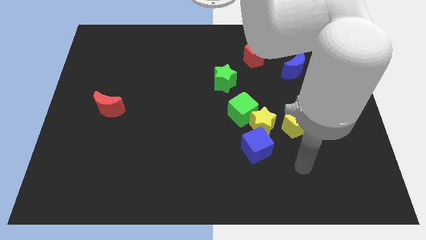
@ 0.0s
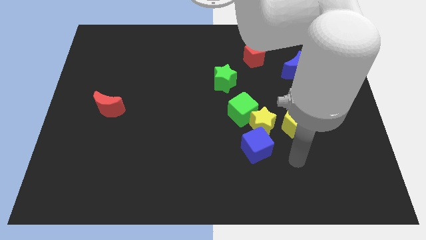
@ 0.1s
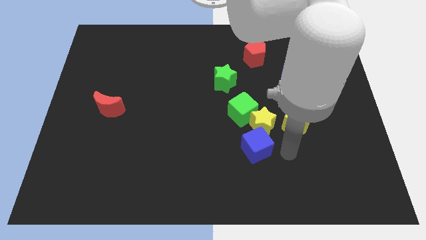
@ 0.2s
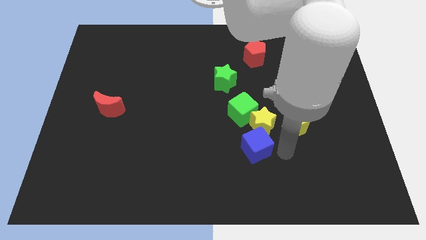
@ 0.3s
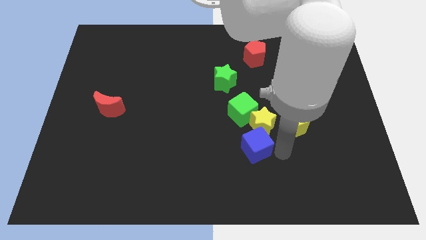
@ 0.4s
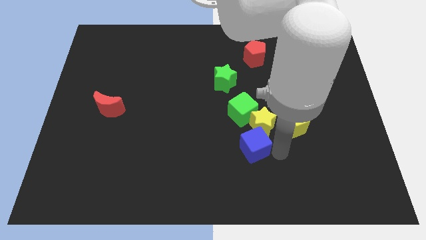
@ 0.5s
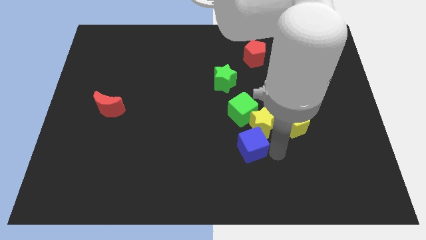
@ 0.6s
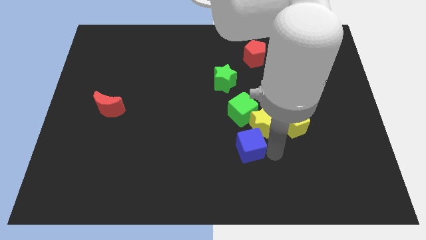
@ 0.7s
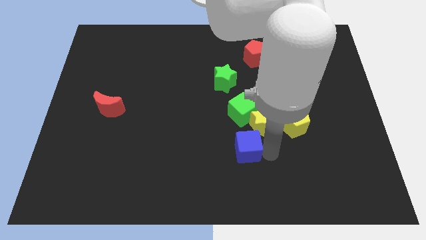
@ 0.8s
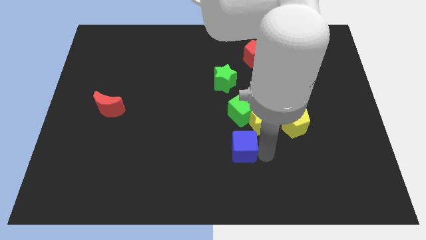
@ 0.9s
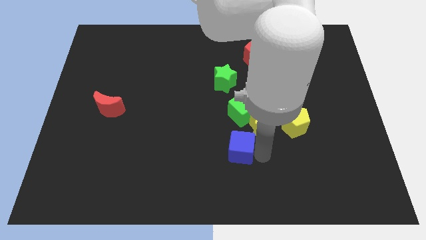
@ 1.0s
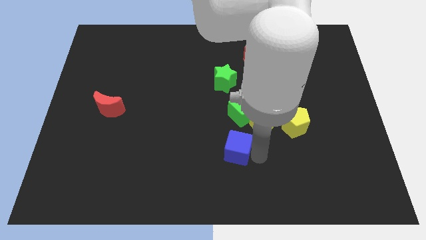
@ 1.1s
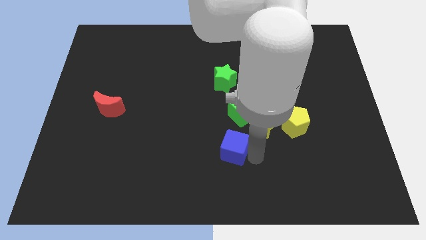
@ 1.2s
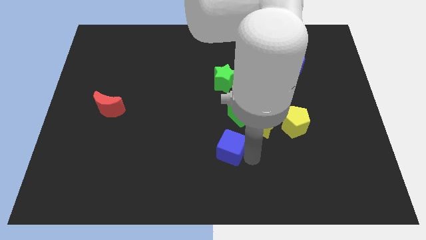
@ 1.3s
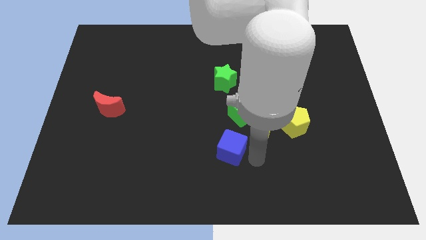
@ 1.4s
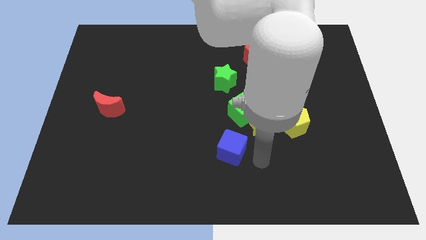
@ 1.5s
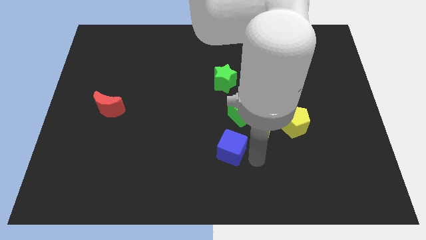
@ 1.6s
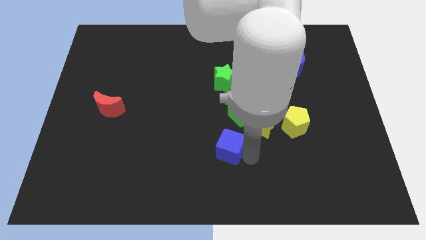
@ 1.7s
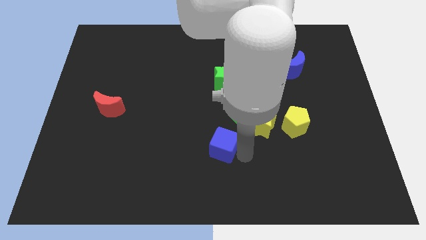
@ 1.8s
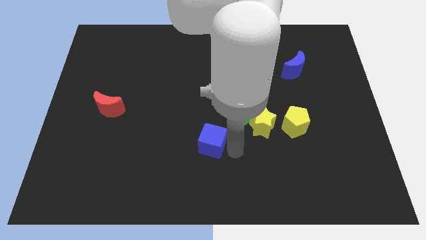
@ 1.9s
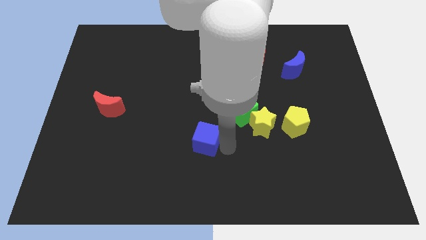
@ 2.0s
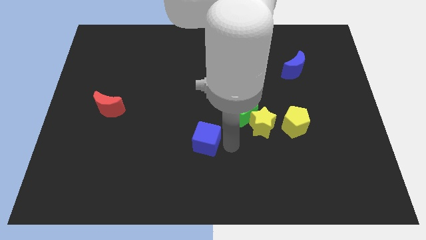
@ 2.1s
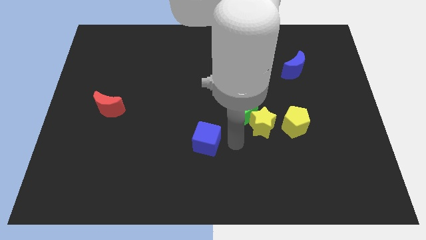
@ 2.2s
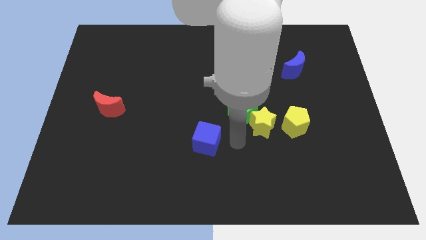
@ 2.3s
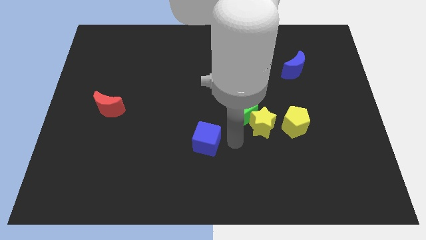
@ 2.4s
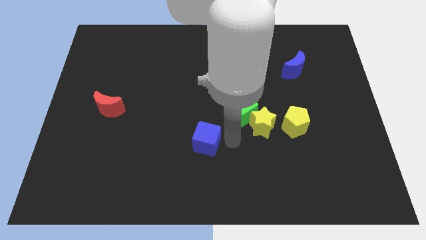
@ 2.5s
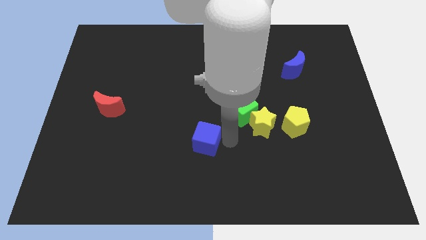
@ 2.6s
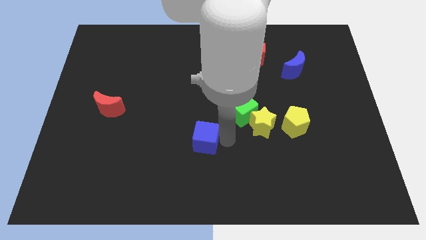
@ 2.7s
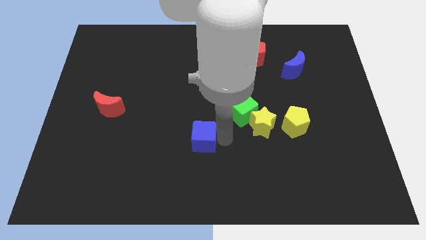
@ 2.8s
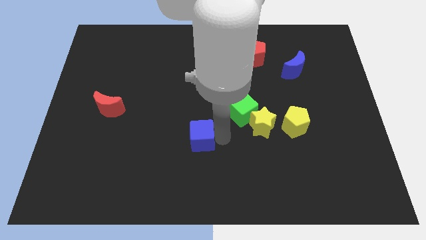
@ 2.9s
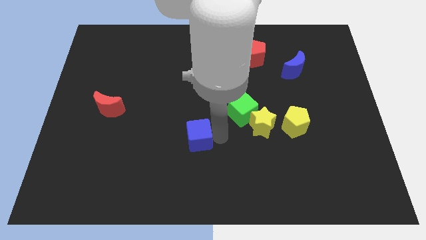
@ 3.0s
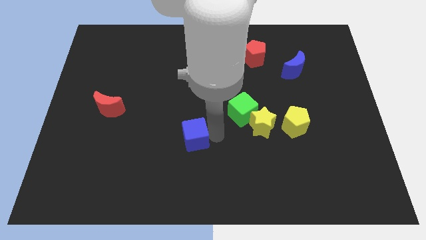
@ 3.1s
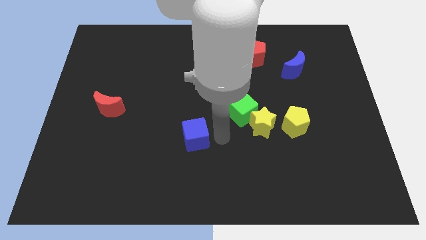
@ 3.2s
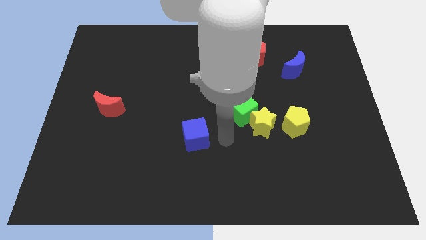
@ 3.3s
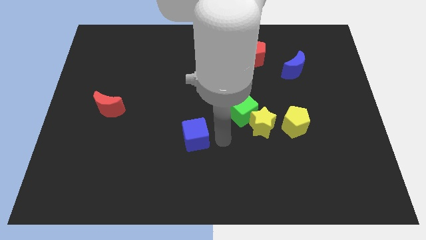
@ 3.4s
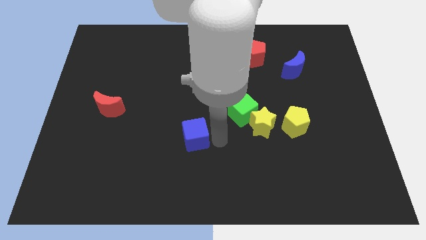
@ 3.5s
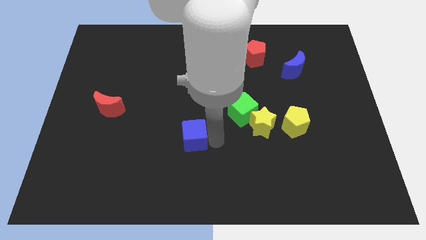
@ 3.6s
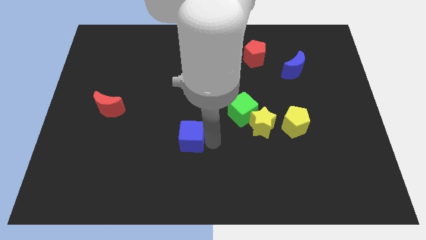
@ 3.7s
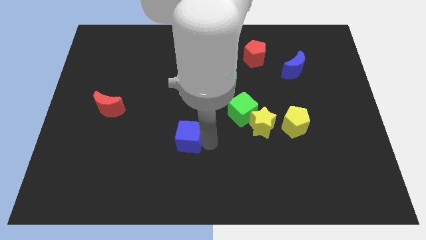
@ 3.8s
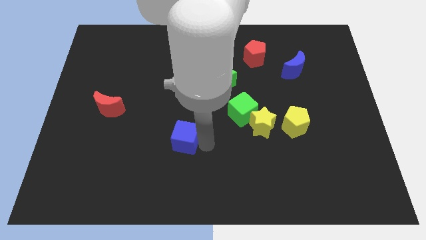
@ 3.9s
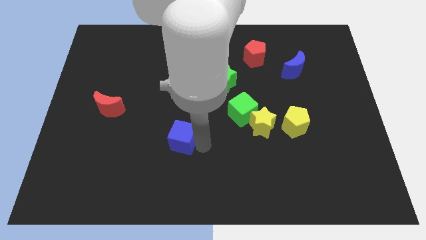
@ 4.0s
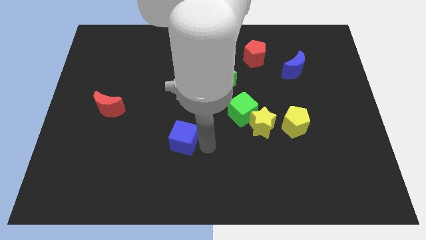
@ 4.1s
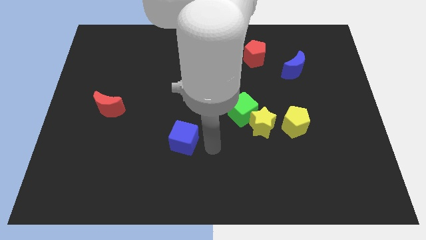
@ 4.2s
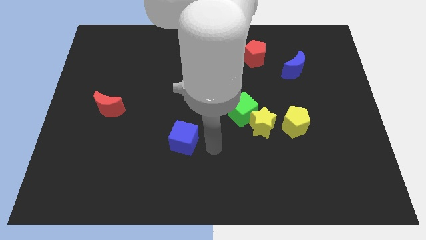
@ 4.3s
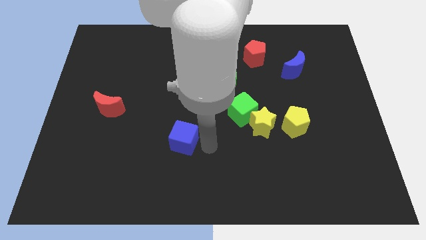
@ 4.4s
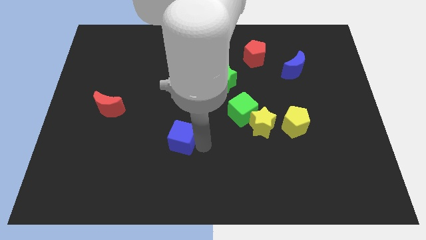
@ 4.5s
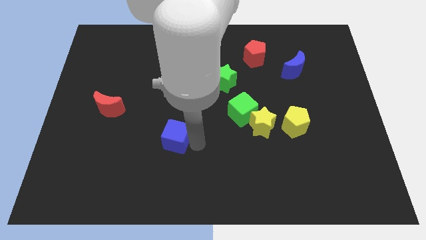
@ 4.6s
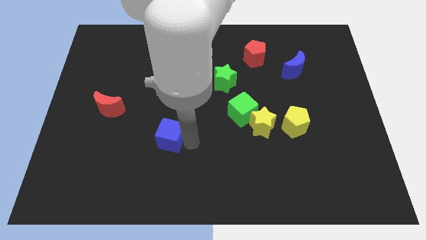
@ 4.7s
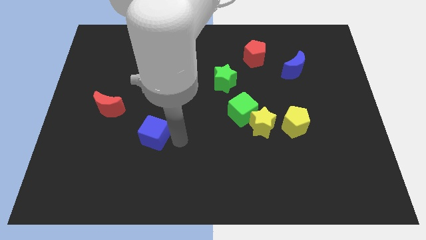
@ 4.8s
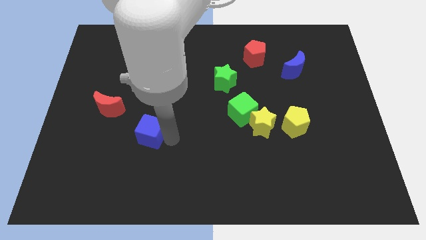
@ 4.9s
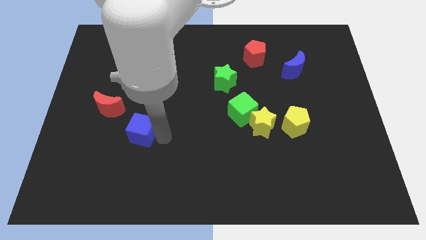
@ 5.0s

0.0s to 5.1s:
put the blue cube to the bottom right side of the red moon

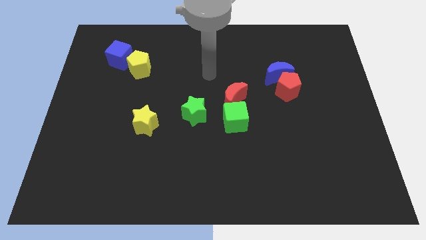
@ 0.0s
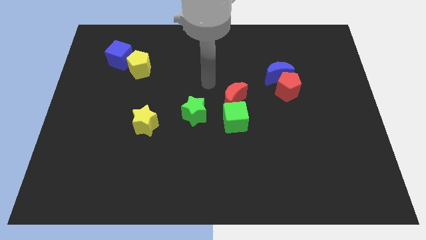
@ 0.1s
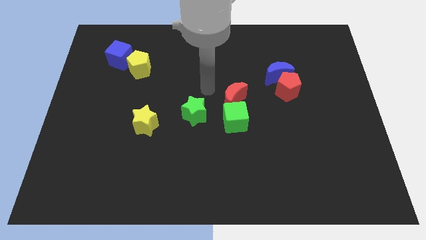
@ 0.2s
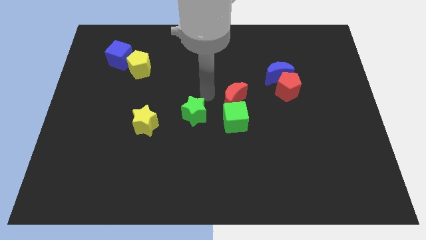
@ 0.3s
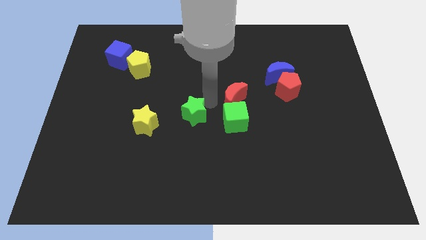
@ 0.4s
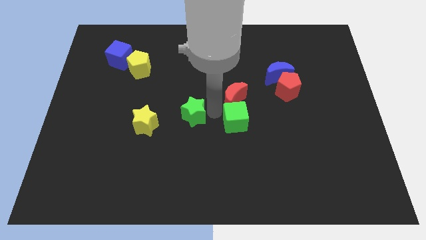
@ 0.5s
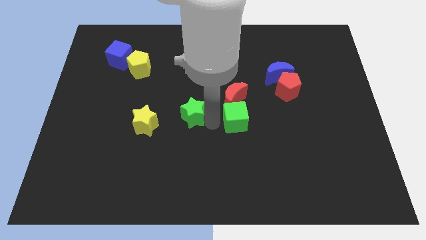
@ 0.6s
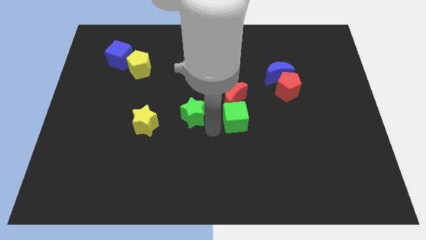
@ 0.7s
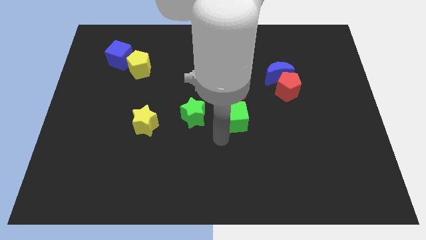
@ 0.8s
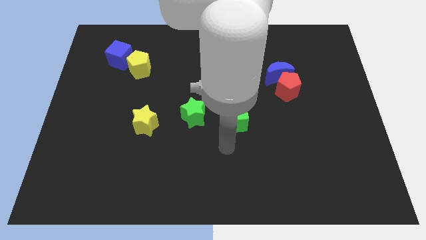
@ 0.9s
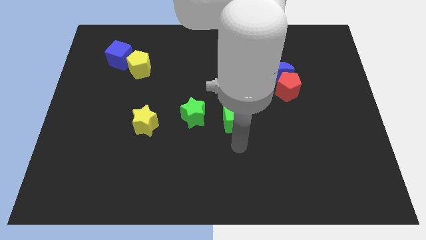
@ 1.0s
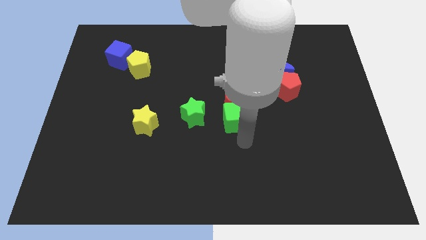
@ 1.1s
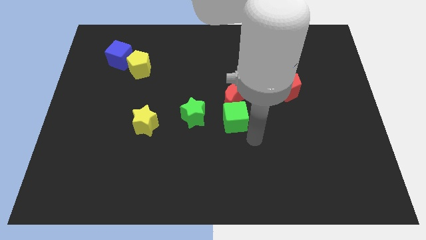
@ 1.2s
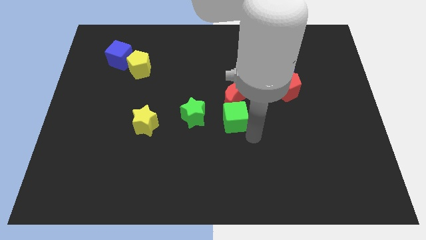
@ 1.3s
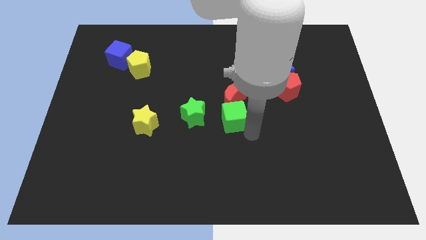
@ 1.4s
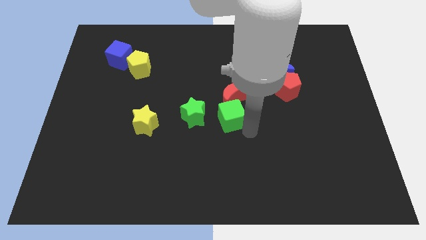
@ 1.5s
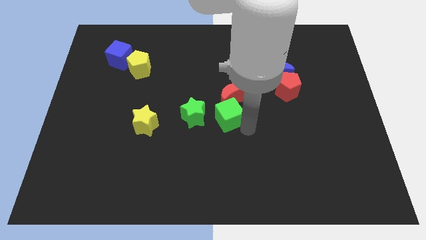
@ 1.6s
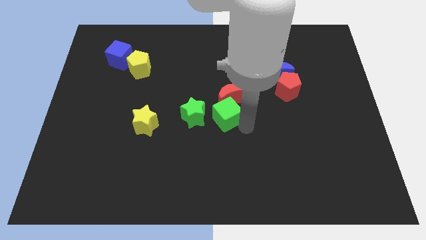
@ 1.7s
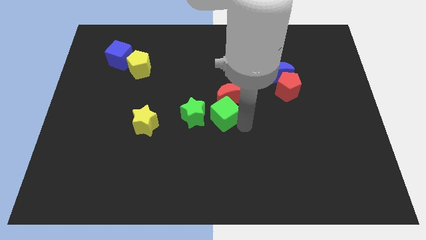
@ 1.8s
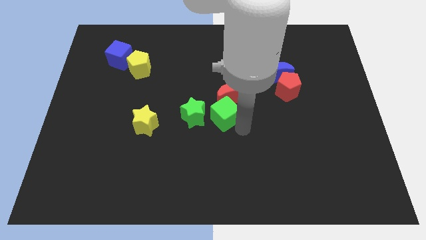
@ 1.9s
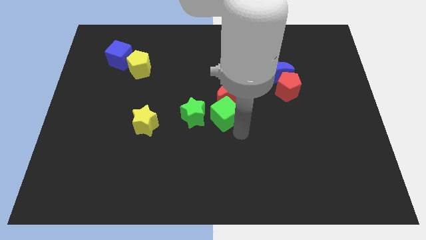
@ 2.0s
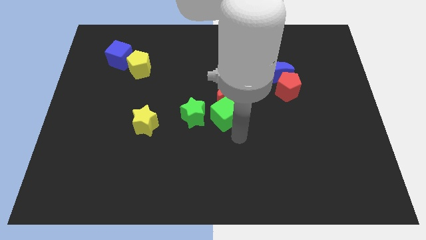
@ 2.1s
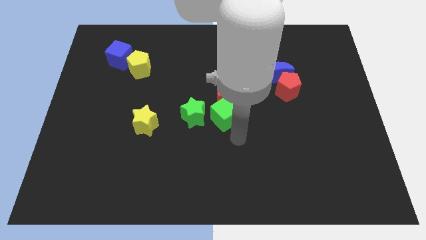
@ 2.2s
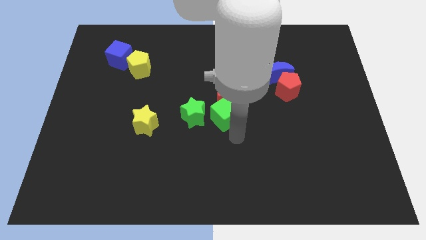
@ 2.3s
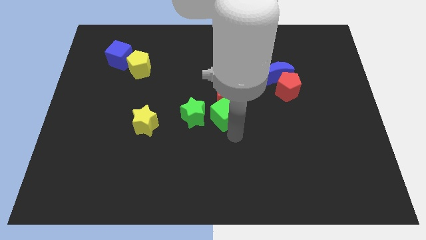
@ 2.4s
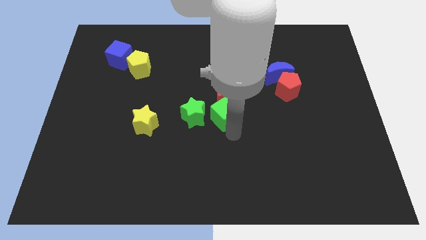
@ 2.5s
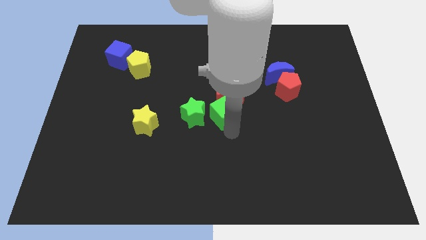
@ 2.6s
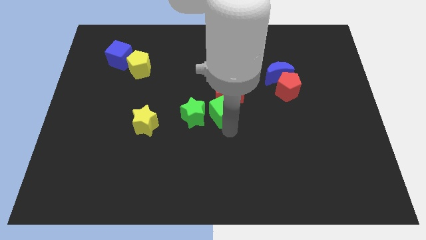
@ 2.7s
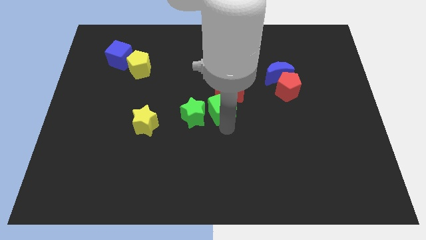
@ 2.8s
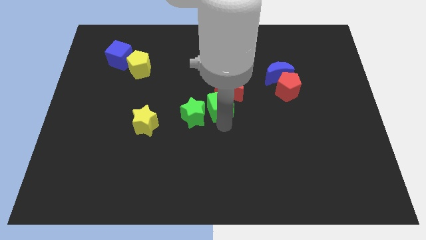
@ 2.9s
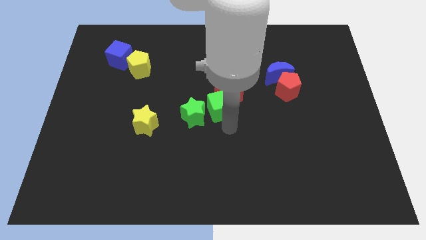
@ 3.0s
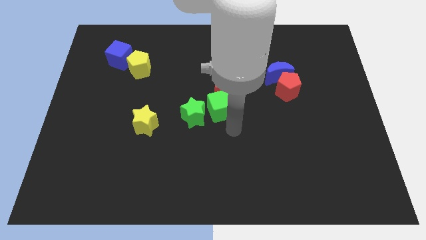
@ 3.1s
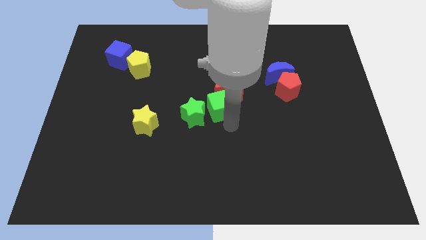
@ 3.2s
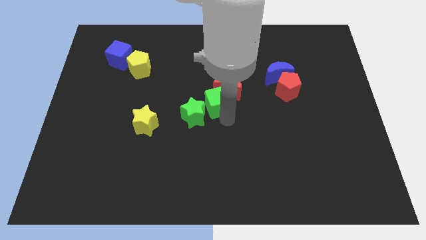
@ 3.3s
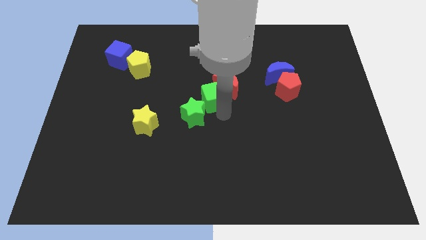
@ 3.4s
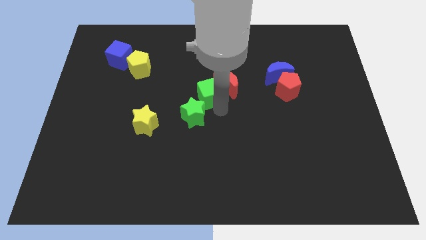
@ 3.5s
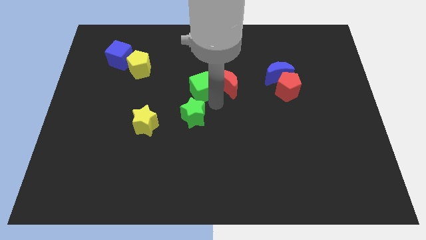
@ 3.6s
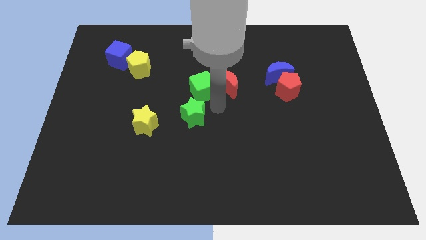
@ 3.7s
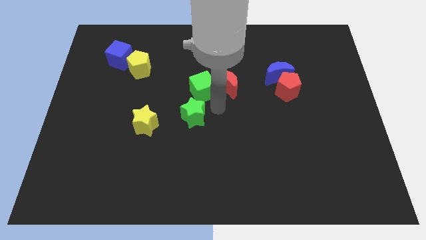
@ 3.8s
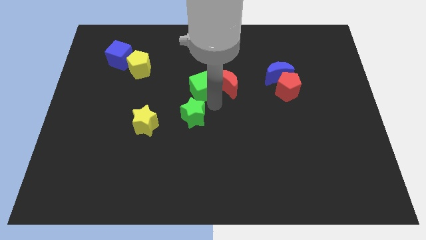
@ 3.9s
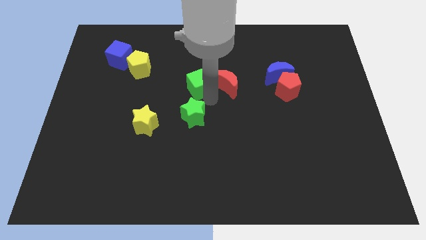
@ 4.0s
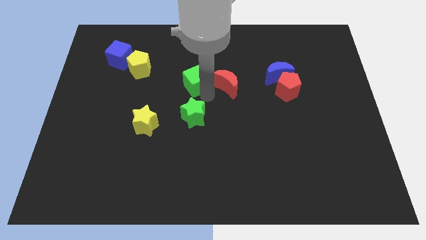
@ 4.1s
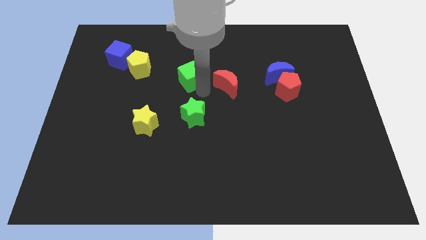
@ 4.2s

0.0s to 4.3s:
put the green cube right of the yellow pentagon
